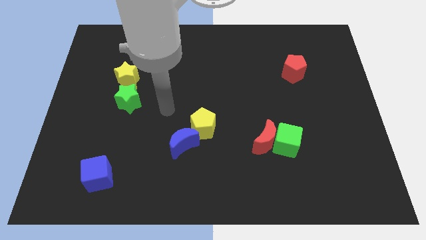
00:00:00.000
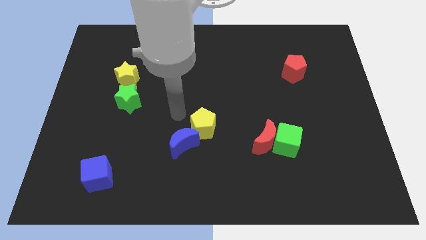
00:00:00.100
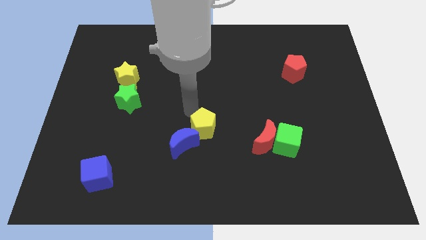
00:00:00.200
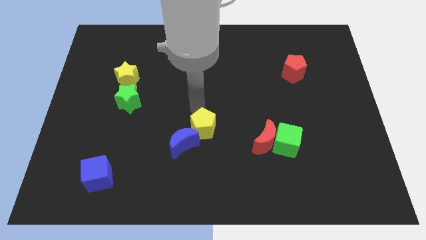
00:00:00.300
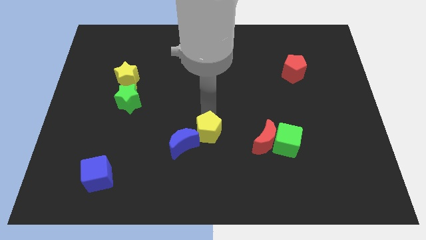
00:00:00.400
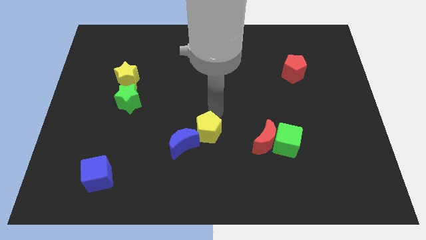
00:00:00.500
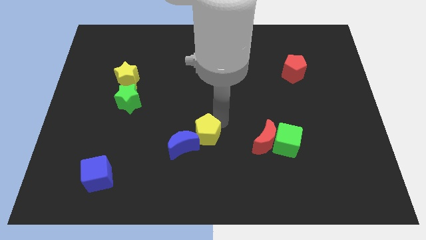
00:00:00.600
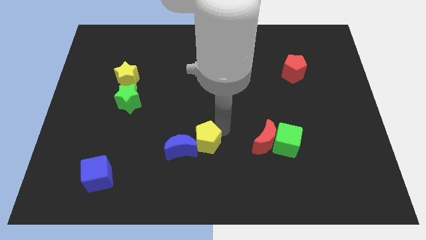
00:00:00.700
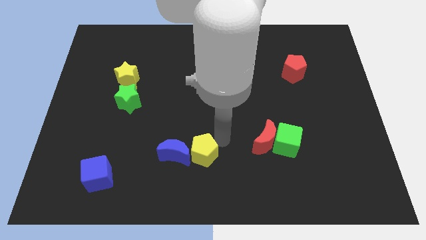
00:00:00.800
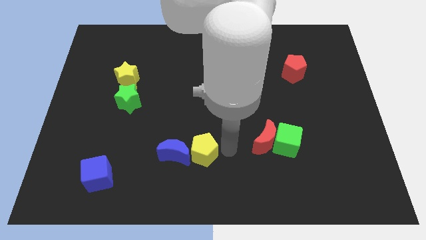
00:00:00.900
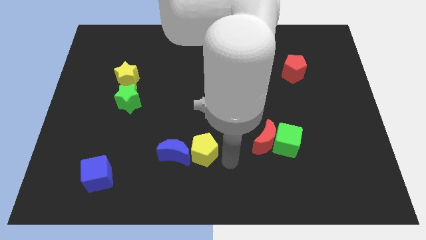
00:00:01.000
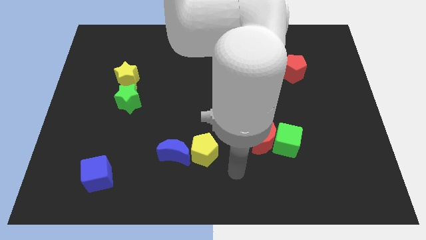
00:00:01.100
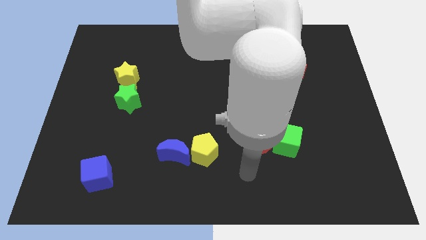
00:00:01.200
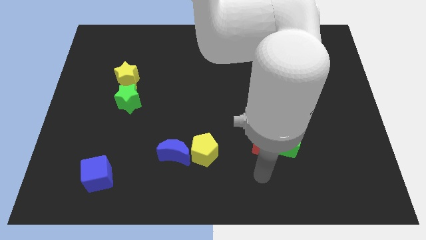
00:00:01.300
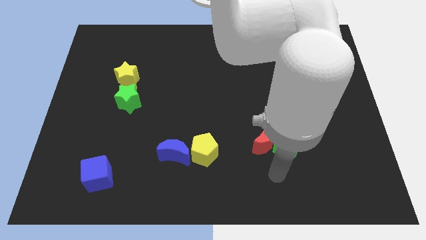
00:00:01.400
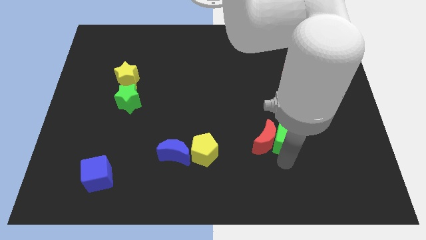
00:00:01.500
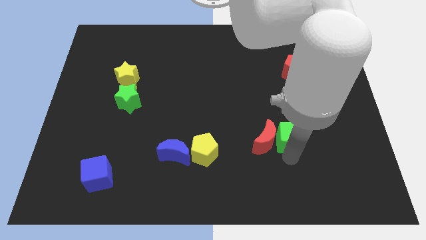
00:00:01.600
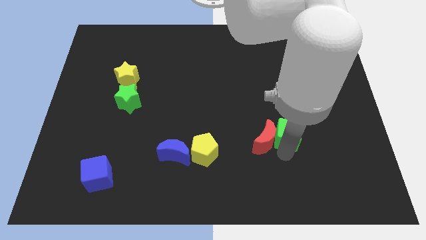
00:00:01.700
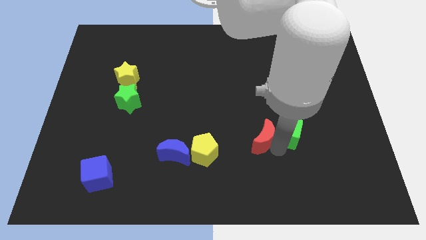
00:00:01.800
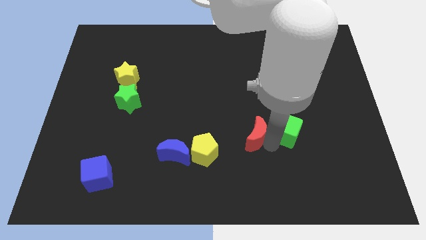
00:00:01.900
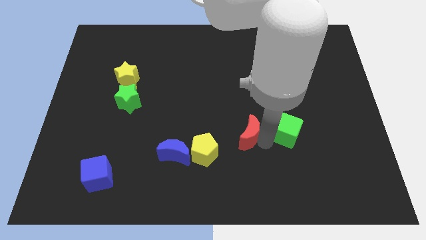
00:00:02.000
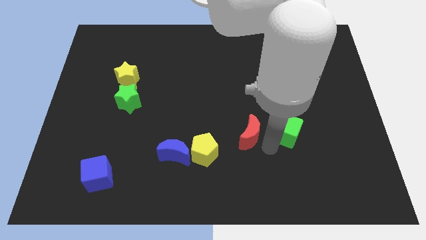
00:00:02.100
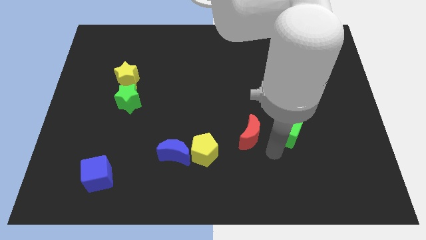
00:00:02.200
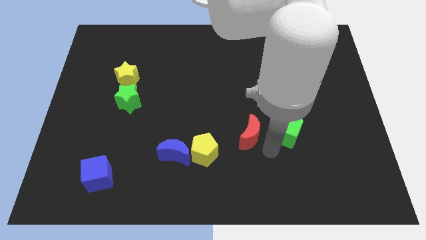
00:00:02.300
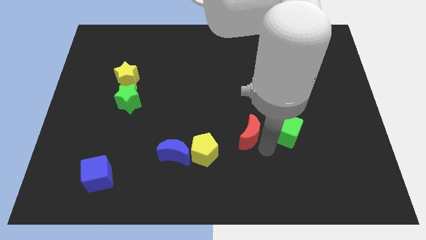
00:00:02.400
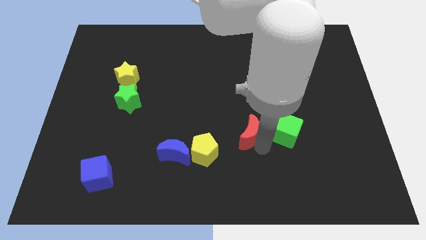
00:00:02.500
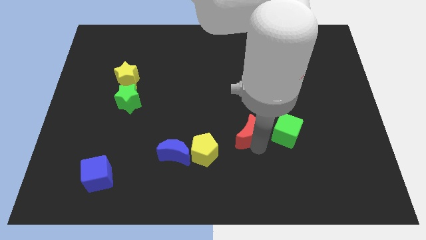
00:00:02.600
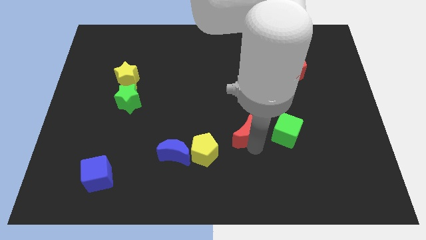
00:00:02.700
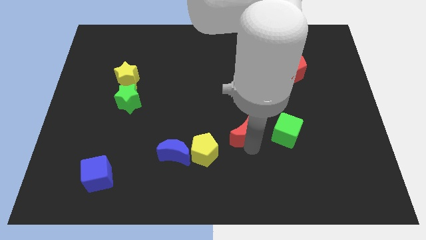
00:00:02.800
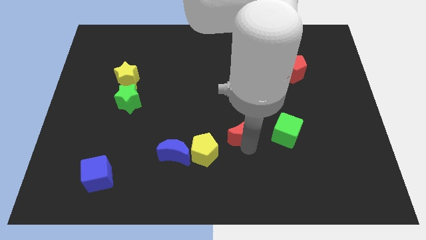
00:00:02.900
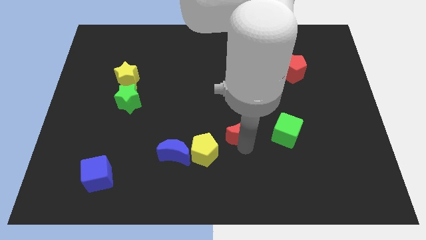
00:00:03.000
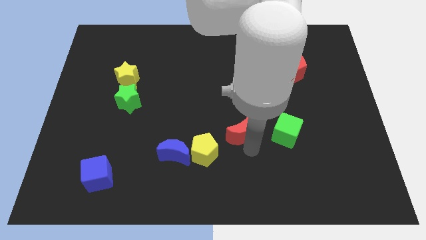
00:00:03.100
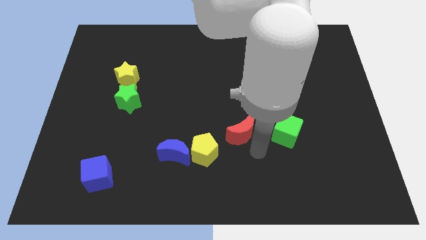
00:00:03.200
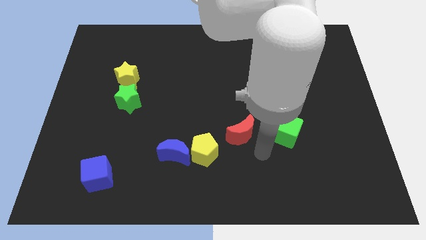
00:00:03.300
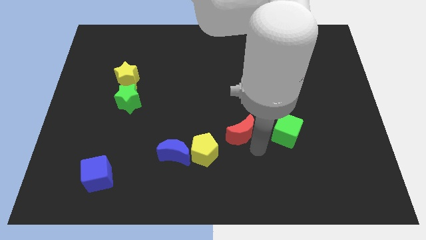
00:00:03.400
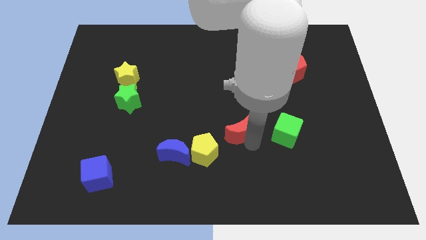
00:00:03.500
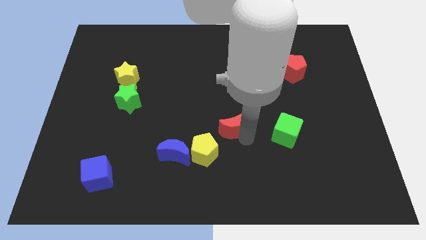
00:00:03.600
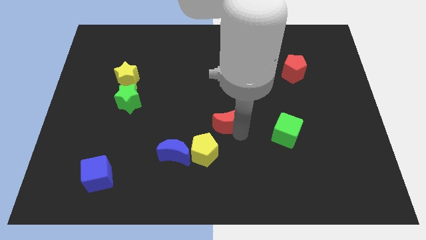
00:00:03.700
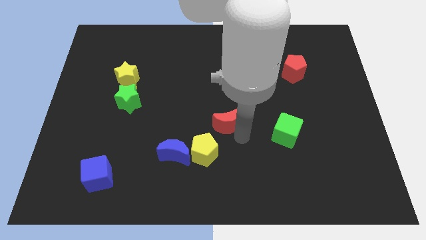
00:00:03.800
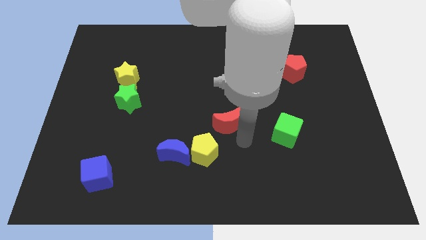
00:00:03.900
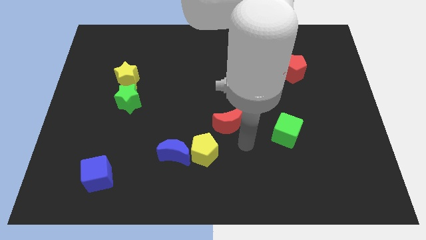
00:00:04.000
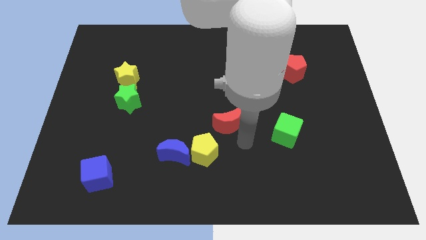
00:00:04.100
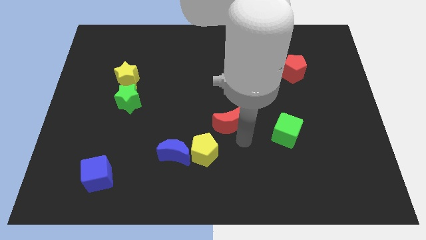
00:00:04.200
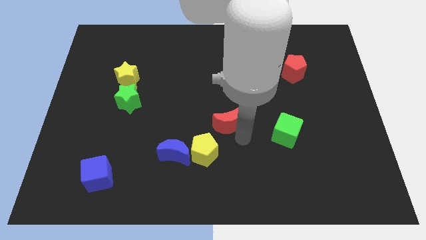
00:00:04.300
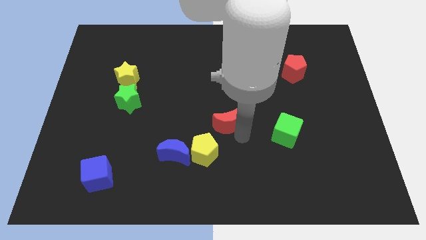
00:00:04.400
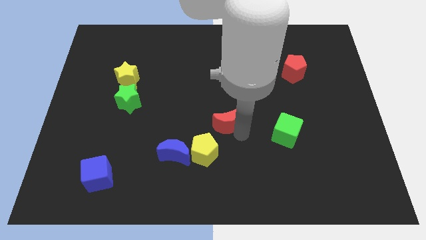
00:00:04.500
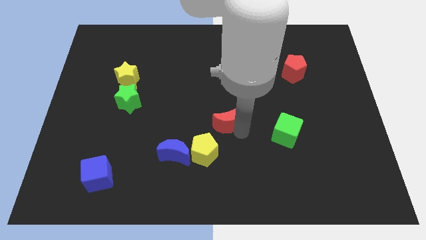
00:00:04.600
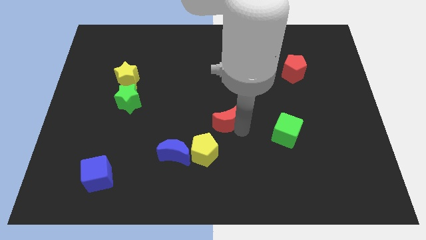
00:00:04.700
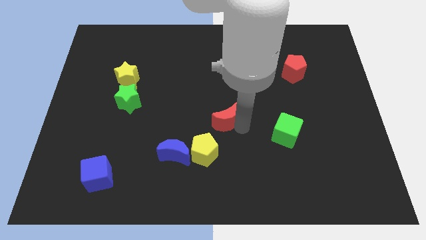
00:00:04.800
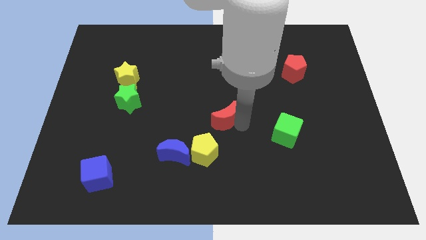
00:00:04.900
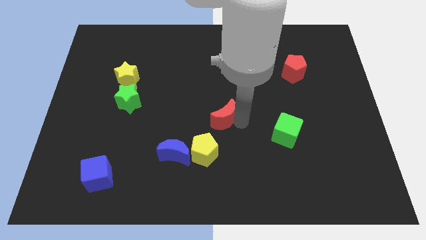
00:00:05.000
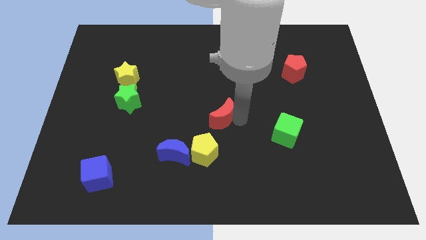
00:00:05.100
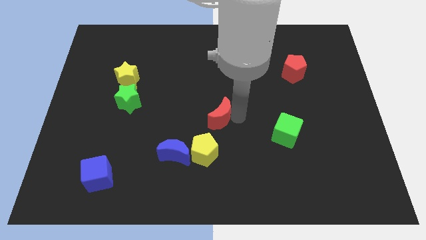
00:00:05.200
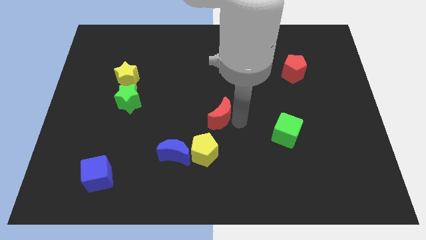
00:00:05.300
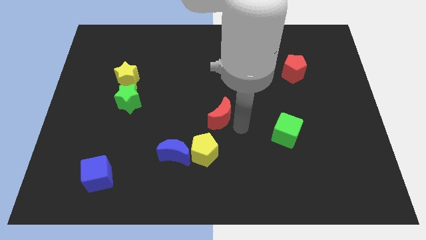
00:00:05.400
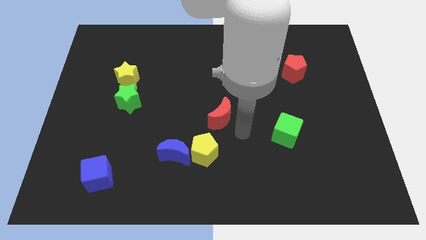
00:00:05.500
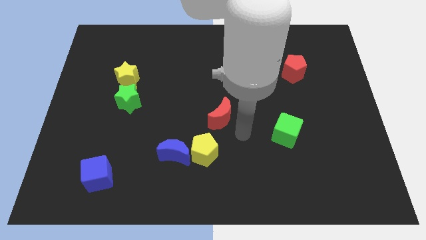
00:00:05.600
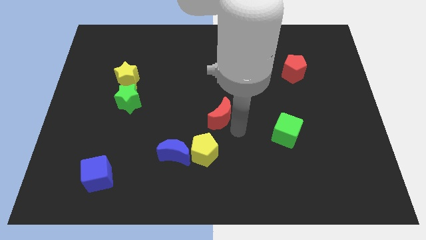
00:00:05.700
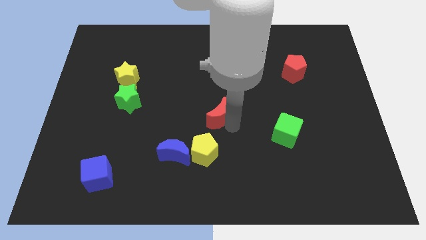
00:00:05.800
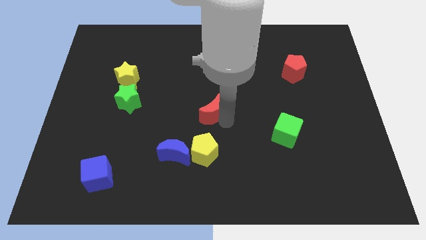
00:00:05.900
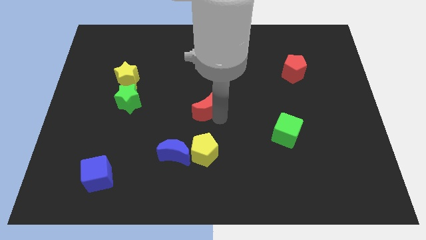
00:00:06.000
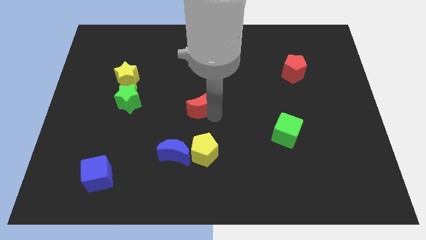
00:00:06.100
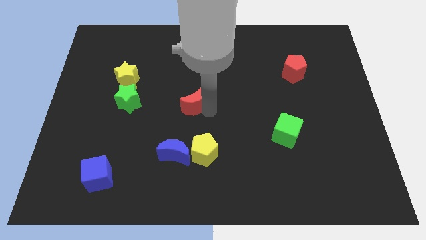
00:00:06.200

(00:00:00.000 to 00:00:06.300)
move the red moon right of the green star

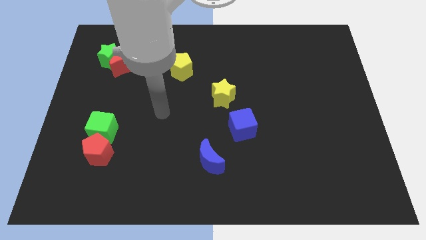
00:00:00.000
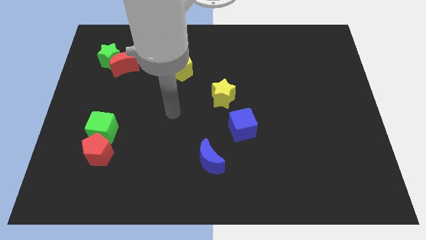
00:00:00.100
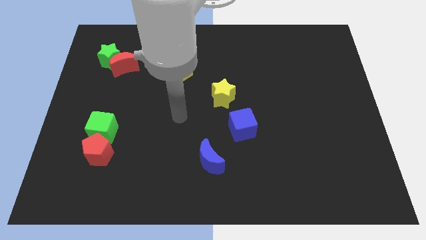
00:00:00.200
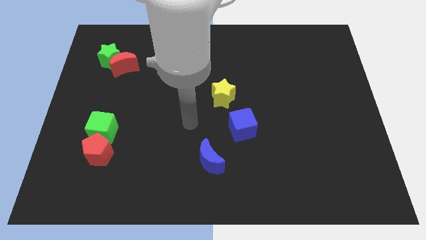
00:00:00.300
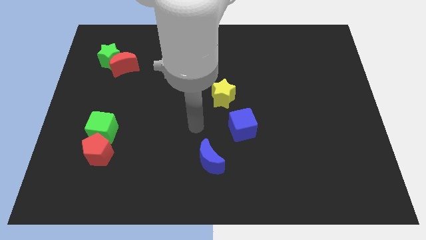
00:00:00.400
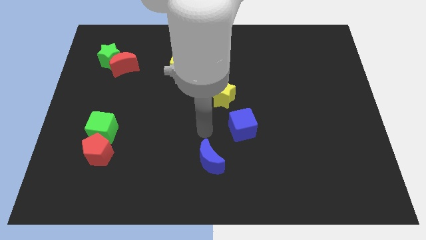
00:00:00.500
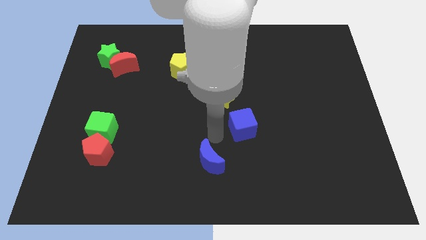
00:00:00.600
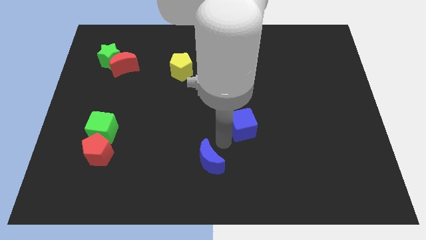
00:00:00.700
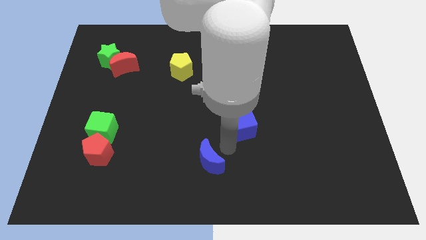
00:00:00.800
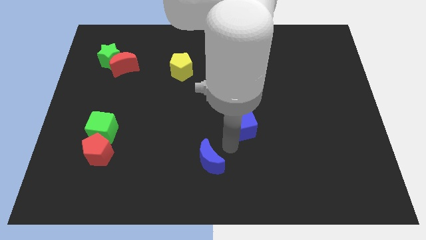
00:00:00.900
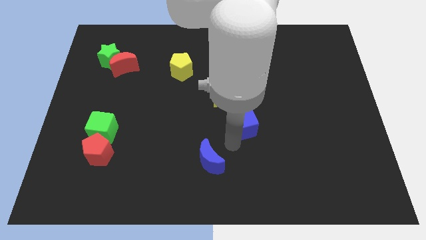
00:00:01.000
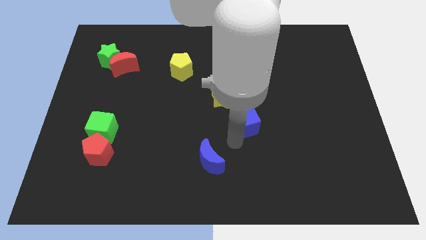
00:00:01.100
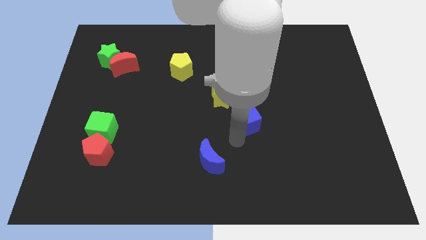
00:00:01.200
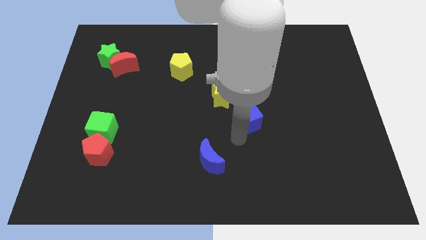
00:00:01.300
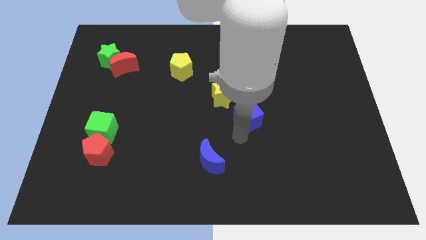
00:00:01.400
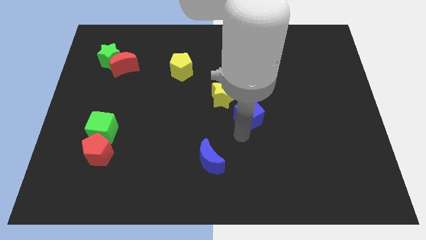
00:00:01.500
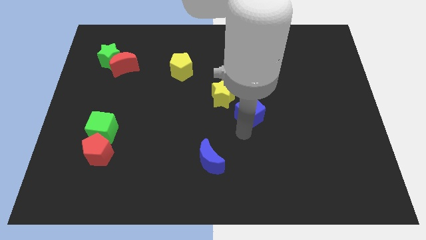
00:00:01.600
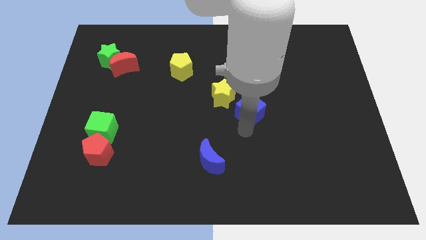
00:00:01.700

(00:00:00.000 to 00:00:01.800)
move the blue cube to the right of the yellow star
